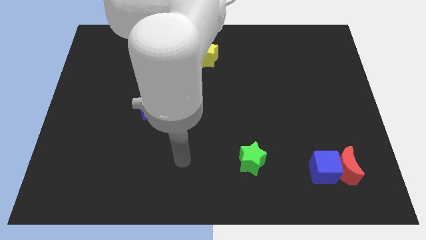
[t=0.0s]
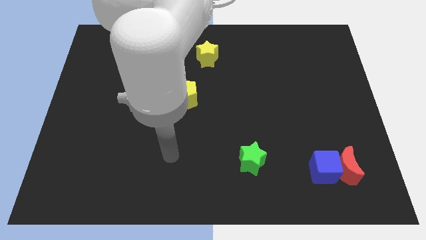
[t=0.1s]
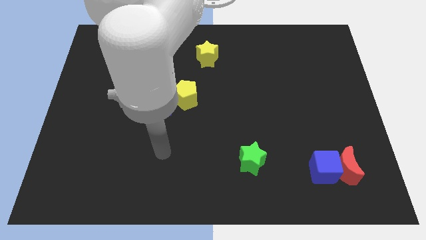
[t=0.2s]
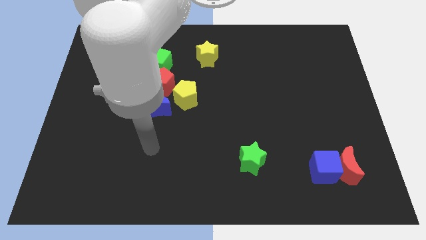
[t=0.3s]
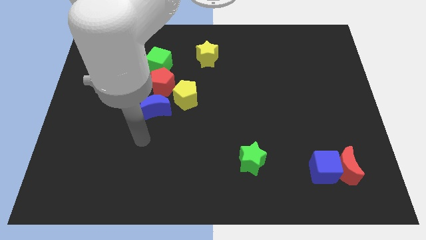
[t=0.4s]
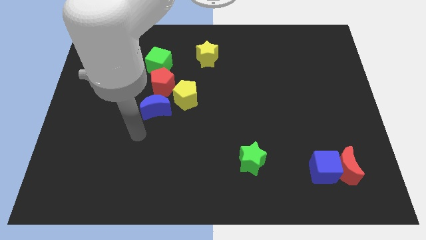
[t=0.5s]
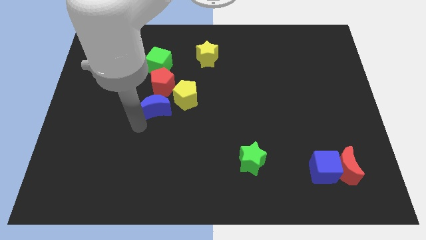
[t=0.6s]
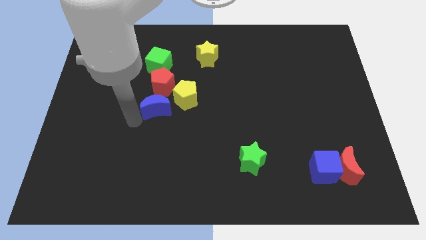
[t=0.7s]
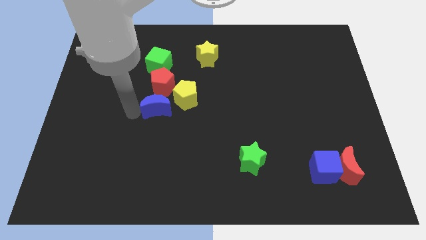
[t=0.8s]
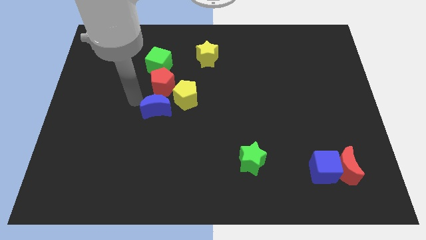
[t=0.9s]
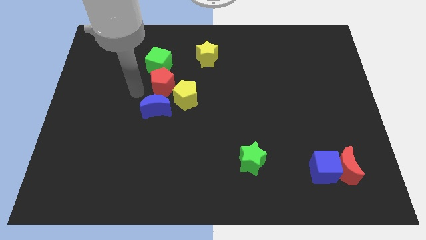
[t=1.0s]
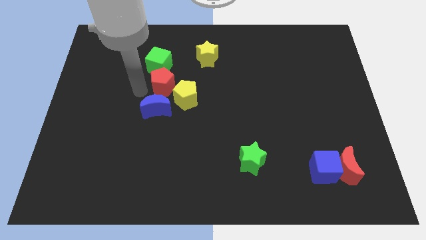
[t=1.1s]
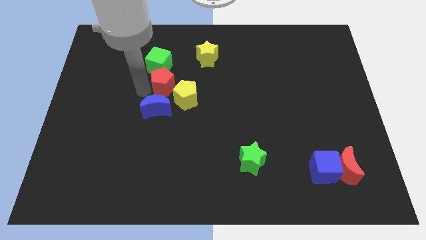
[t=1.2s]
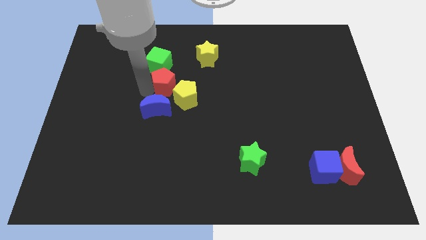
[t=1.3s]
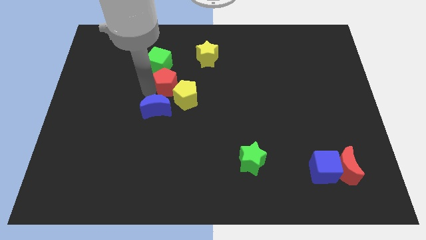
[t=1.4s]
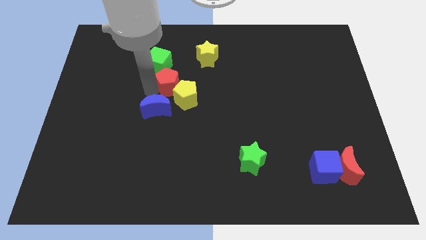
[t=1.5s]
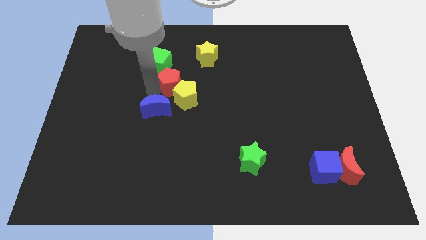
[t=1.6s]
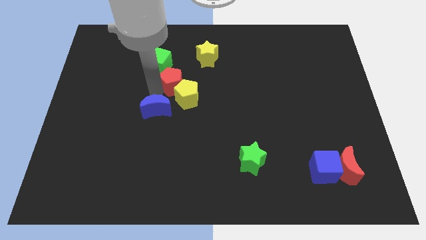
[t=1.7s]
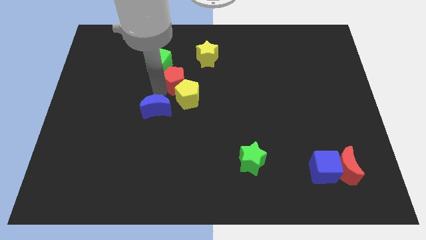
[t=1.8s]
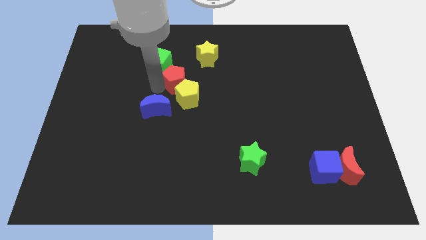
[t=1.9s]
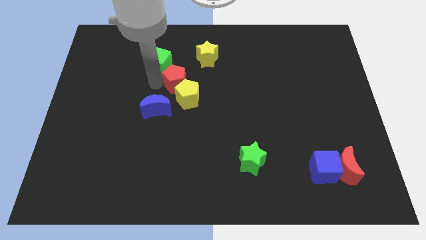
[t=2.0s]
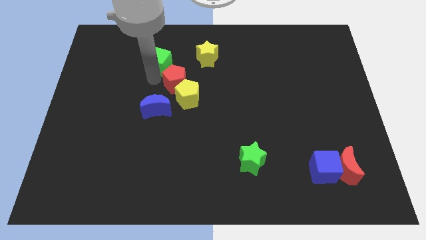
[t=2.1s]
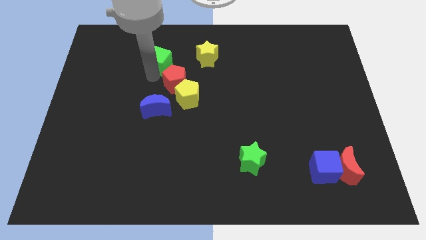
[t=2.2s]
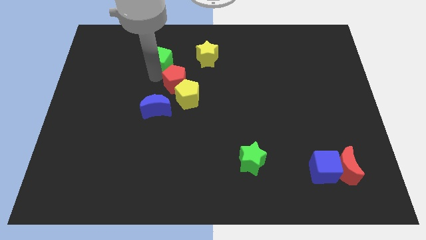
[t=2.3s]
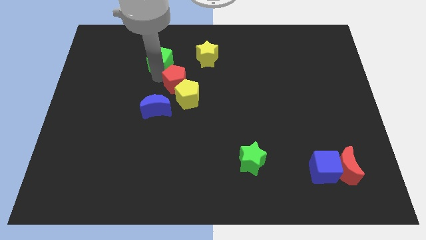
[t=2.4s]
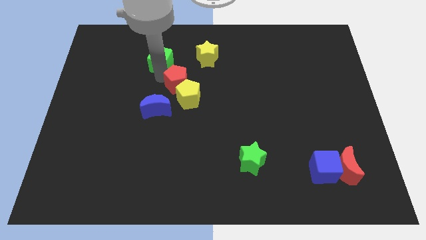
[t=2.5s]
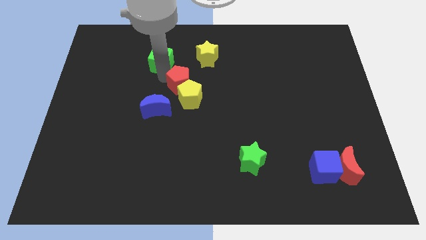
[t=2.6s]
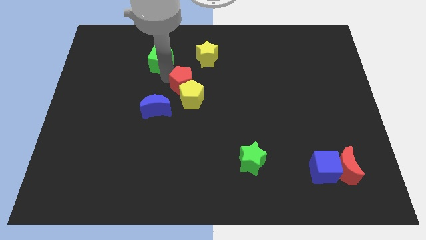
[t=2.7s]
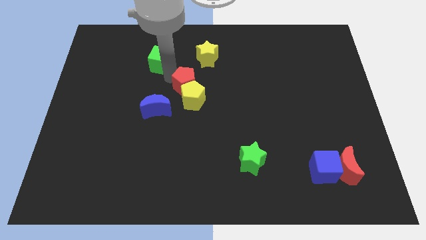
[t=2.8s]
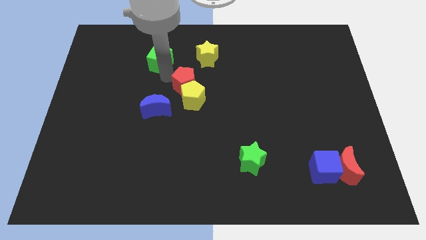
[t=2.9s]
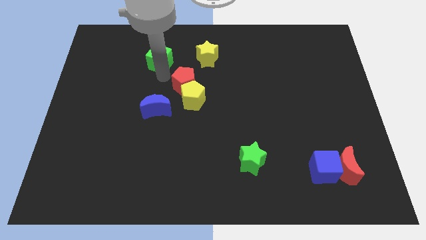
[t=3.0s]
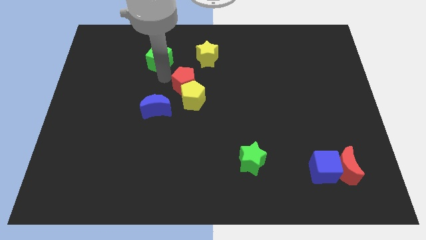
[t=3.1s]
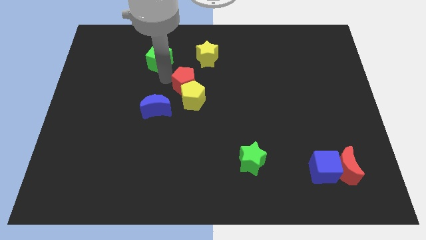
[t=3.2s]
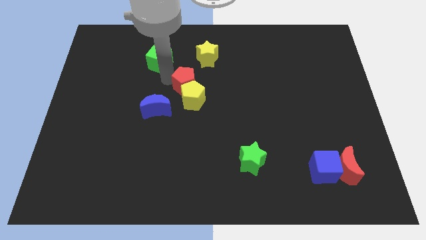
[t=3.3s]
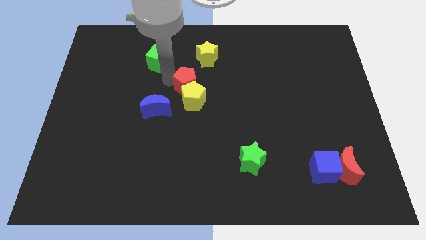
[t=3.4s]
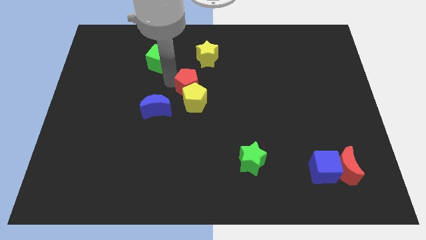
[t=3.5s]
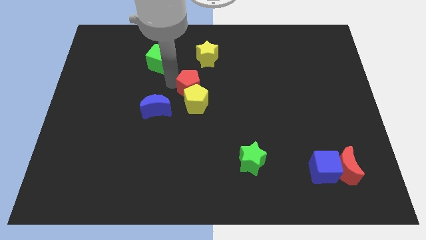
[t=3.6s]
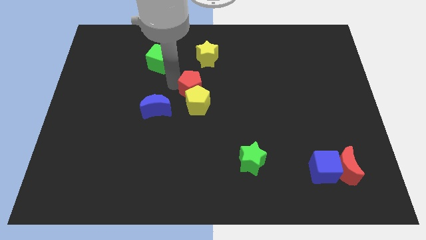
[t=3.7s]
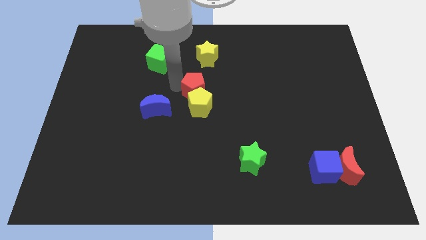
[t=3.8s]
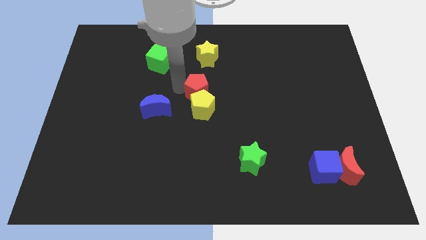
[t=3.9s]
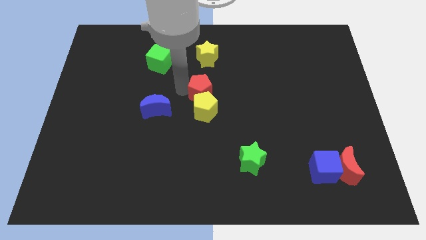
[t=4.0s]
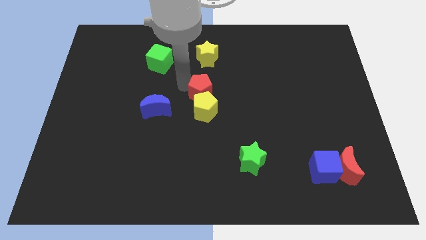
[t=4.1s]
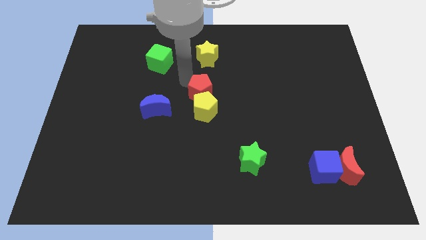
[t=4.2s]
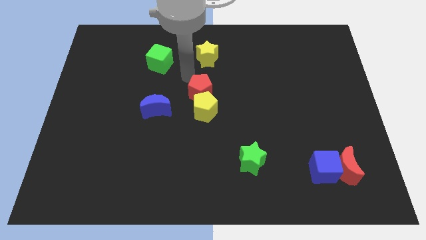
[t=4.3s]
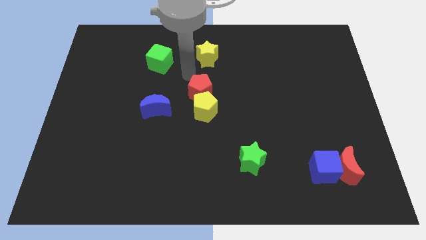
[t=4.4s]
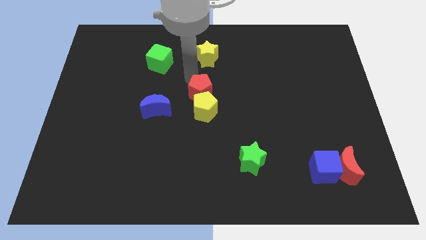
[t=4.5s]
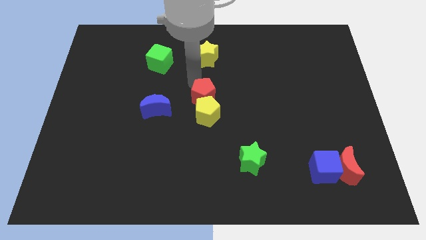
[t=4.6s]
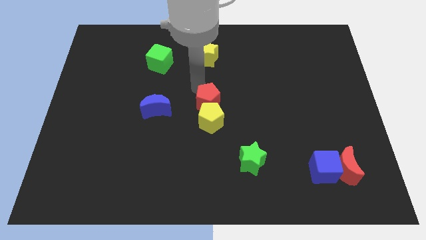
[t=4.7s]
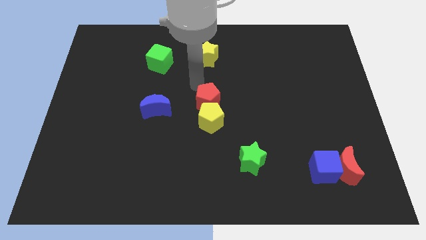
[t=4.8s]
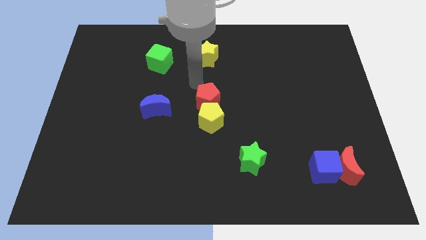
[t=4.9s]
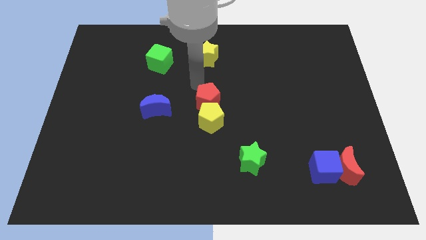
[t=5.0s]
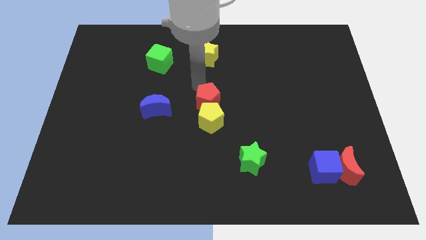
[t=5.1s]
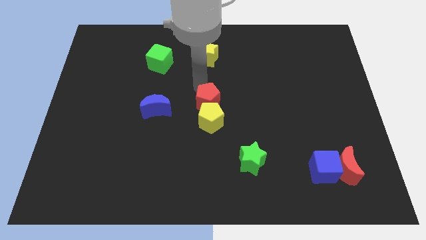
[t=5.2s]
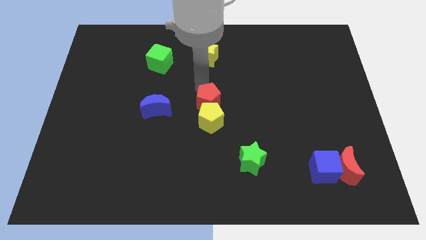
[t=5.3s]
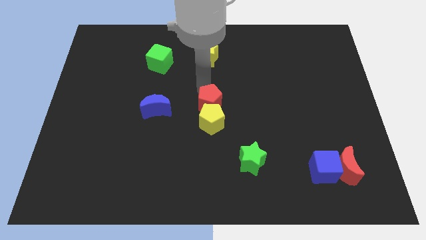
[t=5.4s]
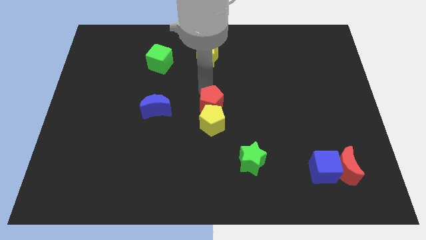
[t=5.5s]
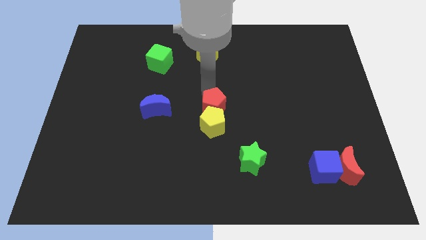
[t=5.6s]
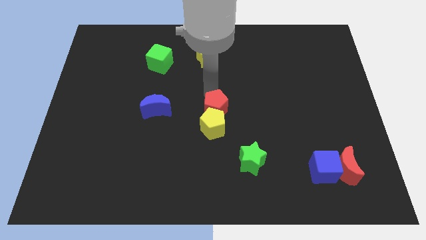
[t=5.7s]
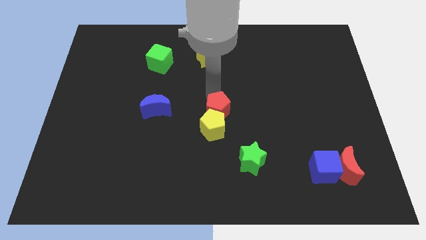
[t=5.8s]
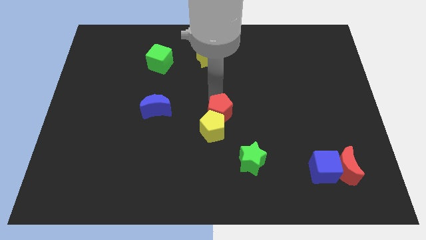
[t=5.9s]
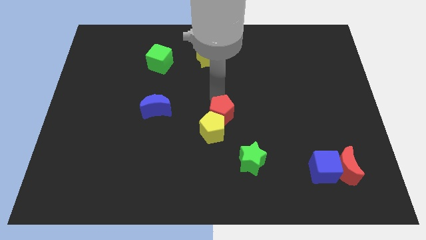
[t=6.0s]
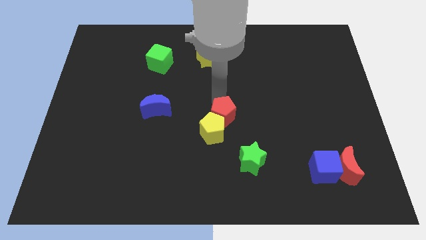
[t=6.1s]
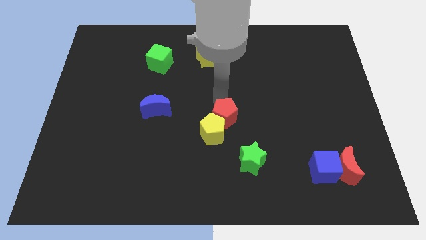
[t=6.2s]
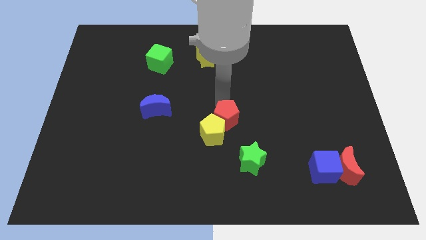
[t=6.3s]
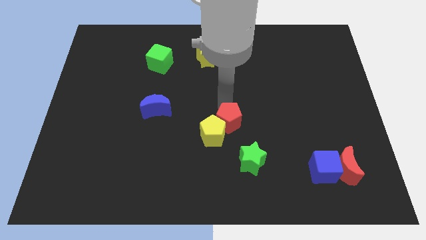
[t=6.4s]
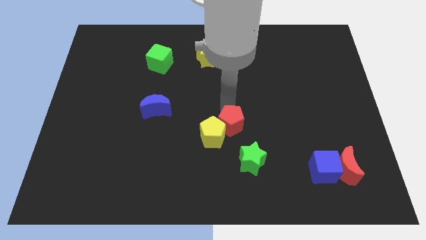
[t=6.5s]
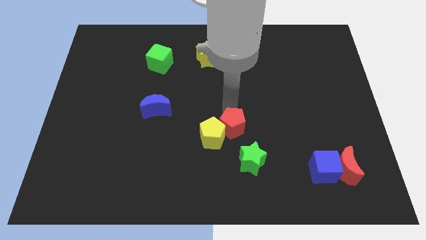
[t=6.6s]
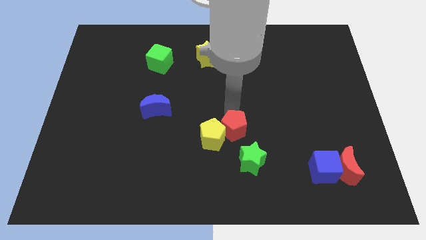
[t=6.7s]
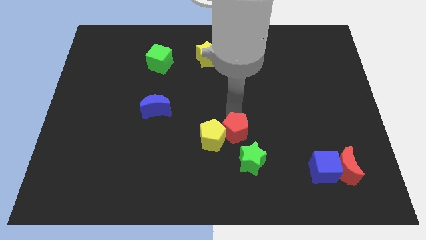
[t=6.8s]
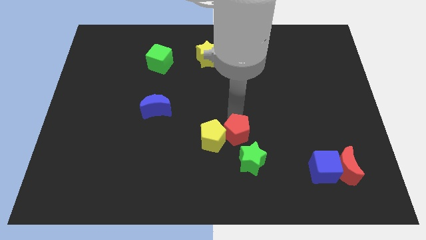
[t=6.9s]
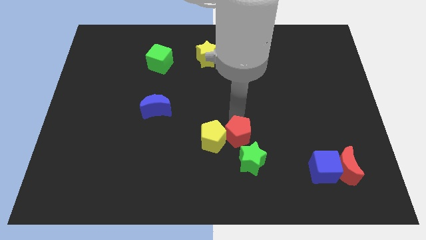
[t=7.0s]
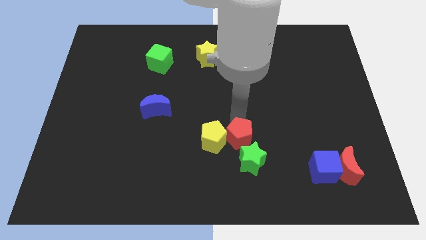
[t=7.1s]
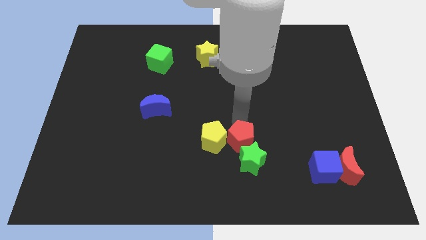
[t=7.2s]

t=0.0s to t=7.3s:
move the red pentagon close to the green star
